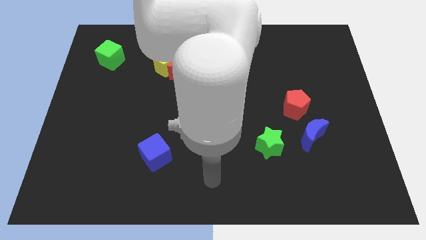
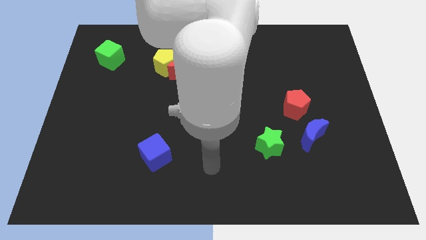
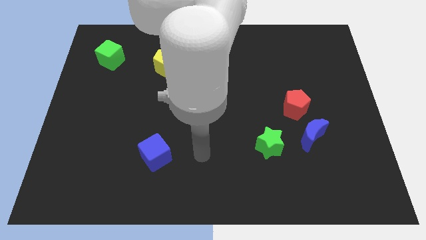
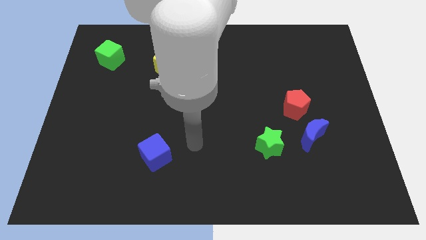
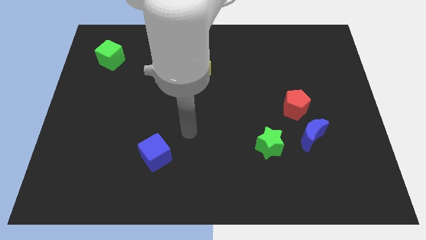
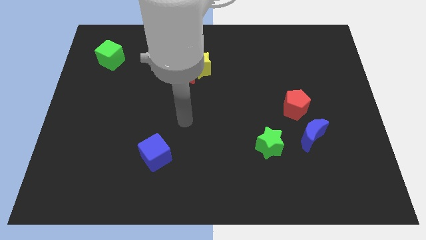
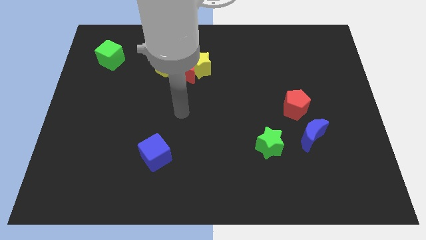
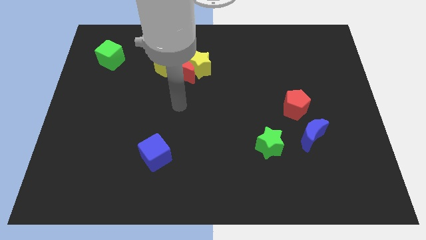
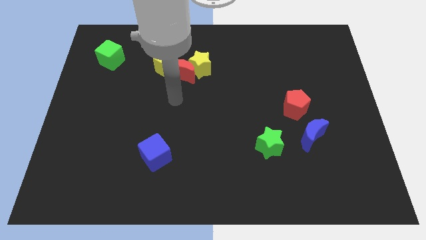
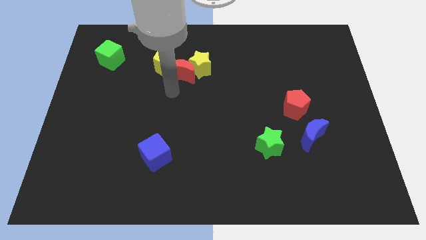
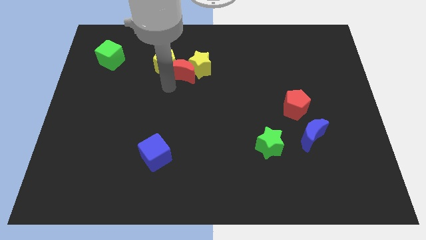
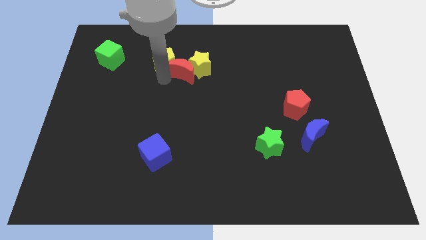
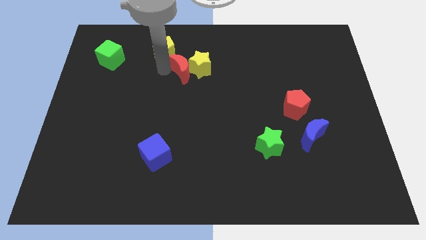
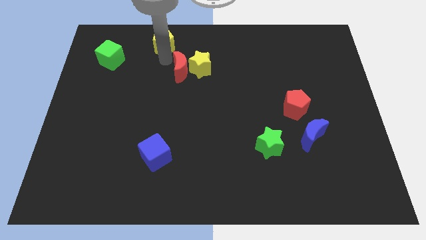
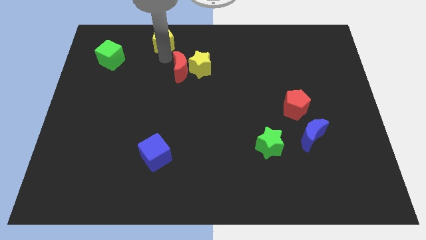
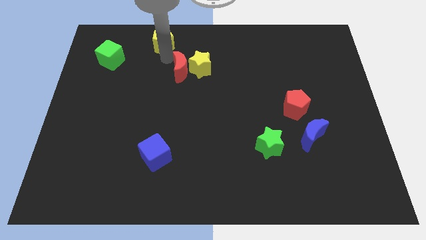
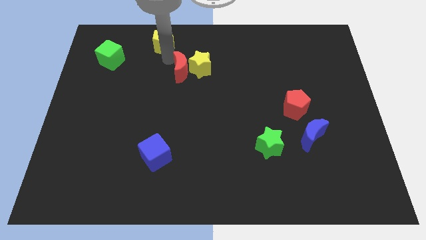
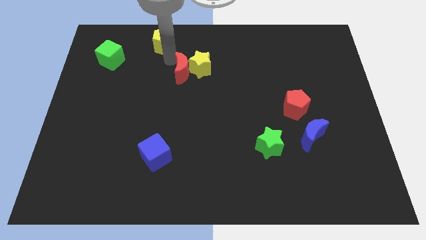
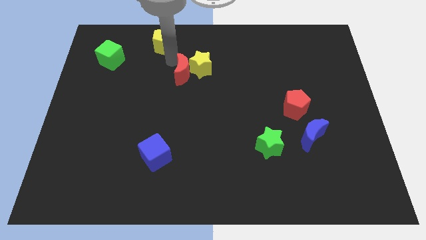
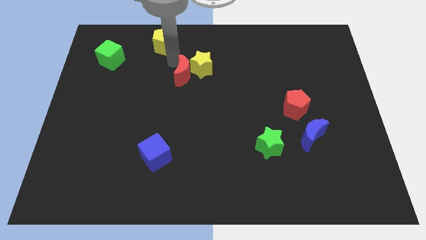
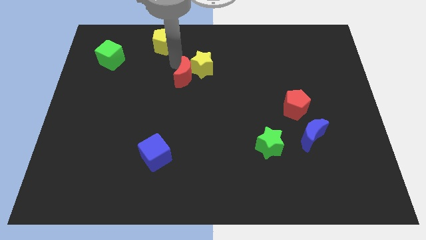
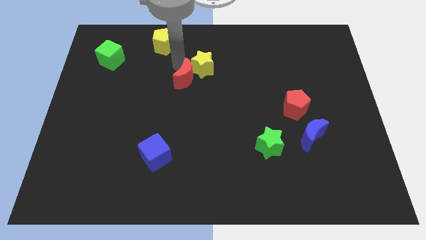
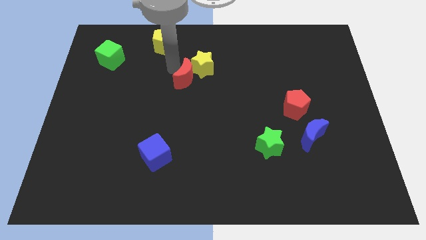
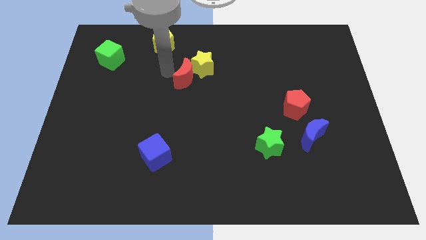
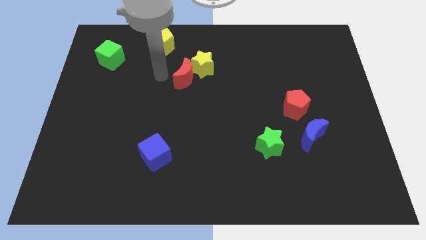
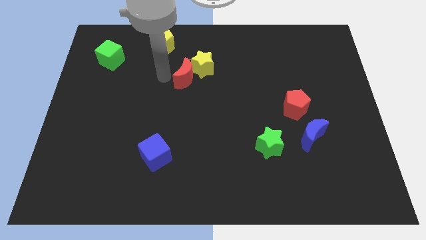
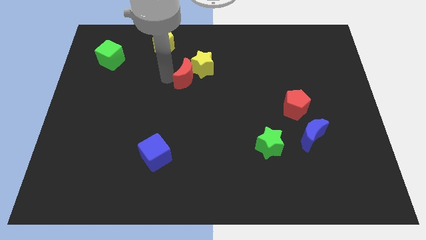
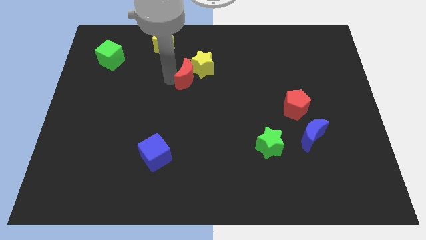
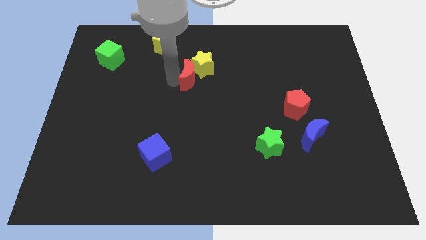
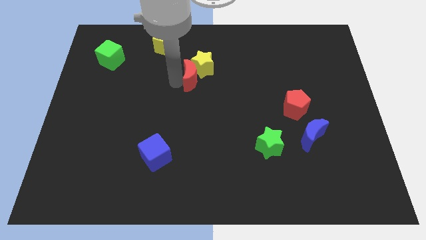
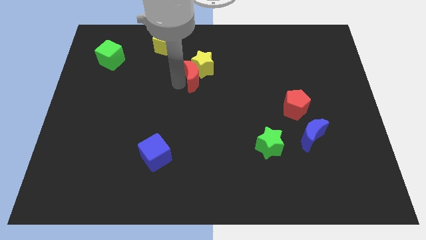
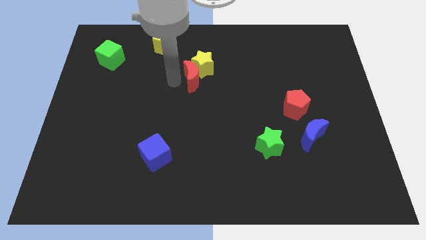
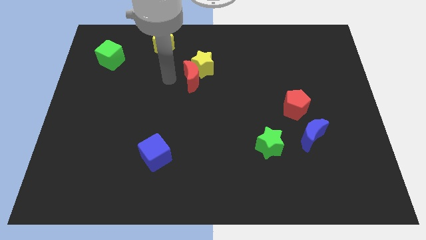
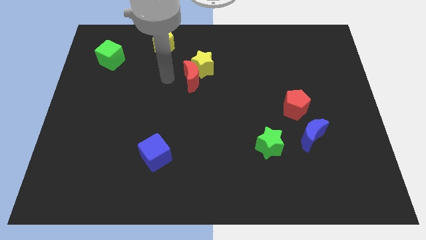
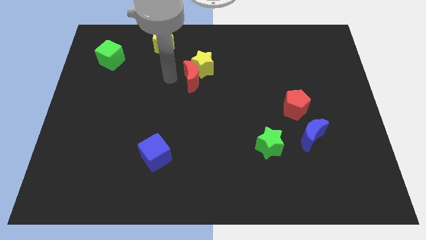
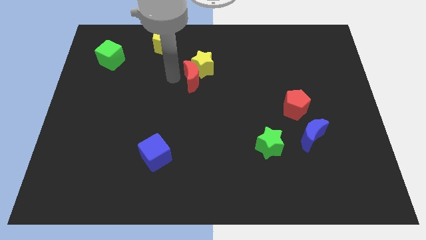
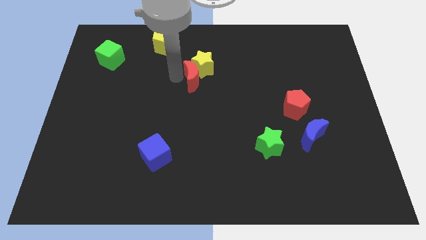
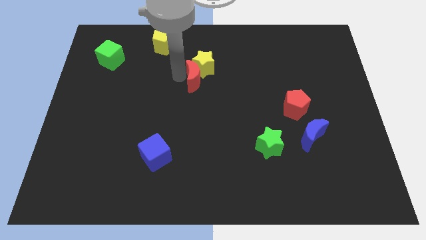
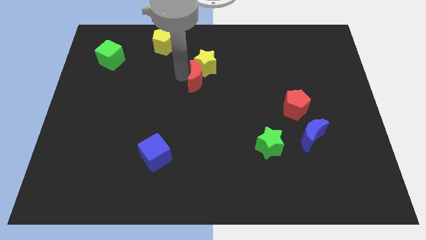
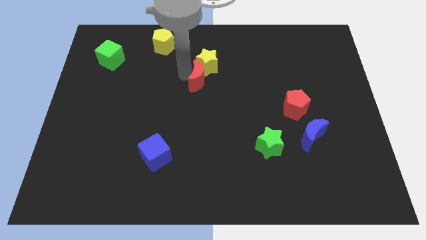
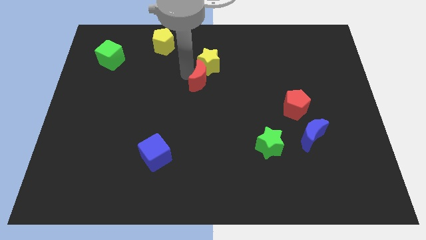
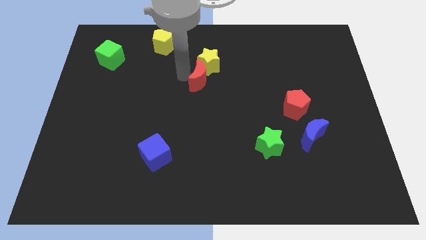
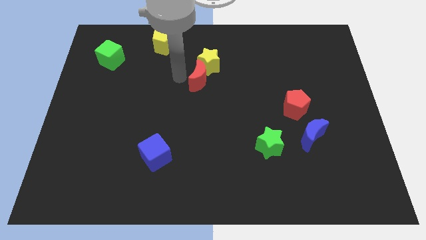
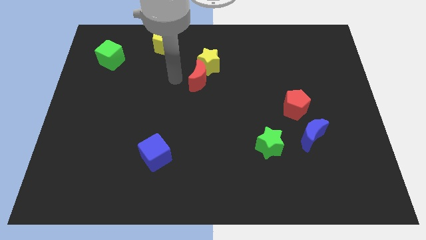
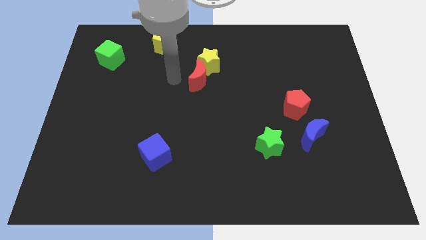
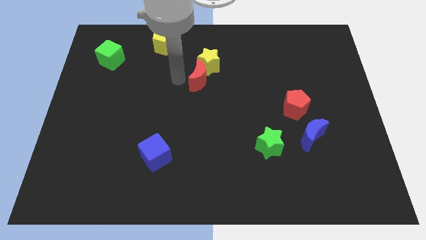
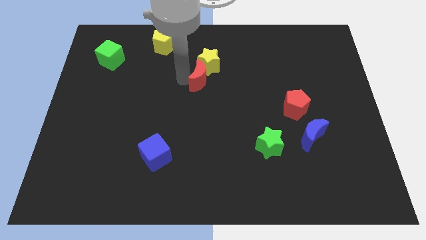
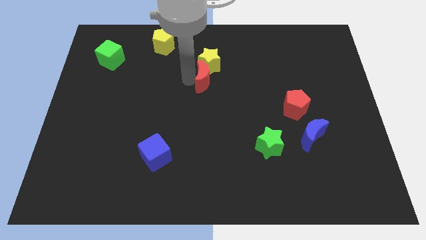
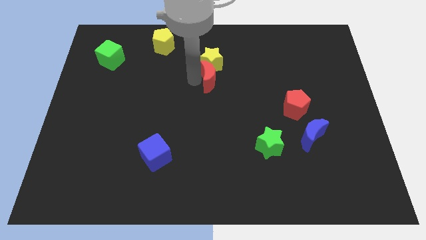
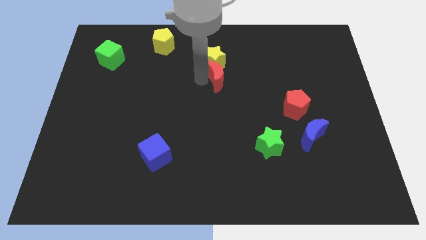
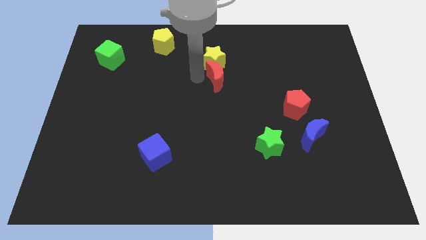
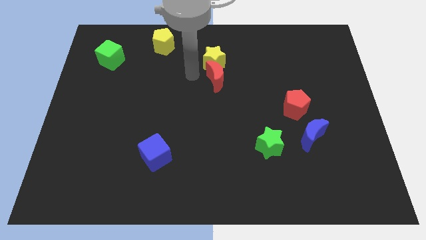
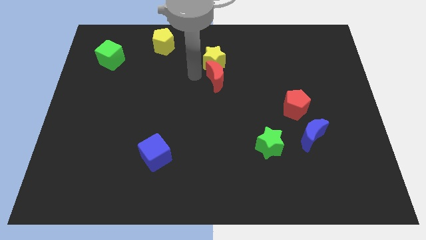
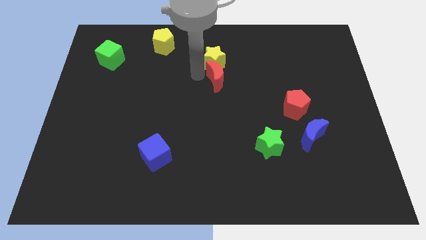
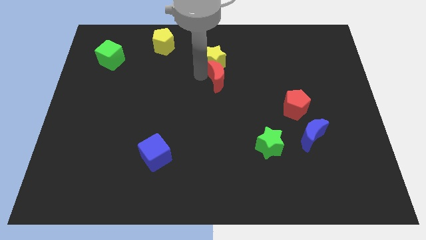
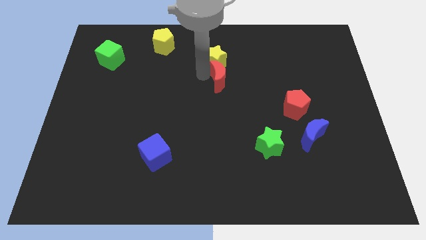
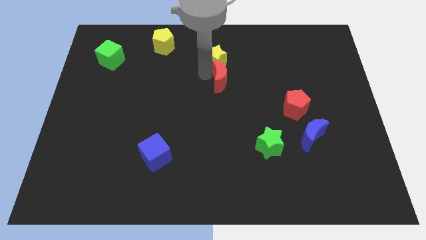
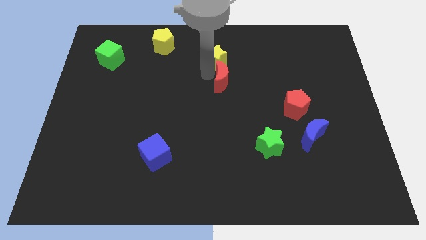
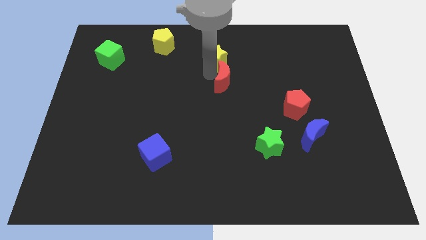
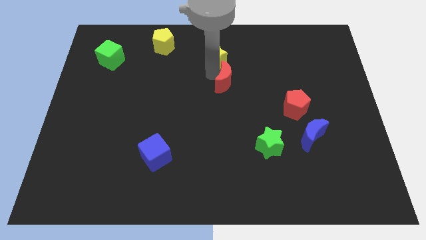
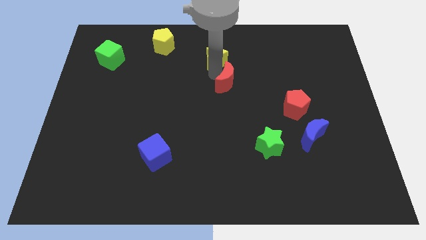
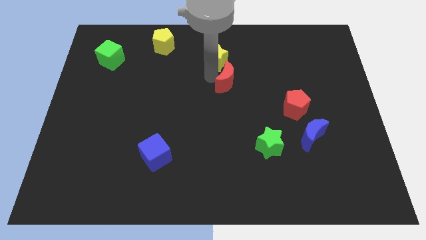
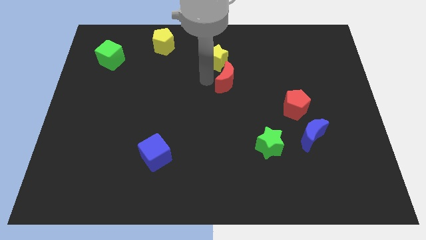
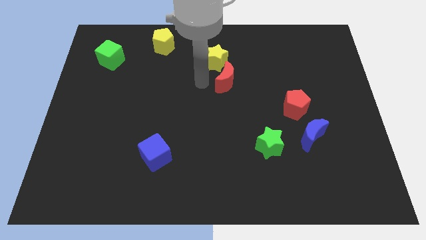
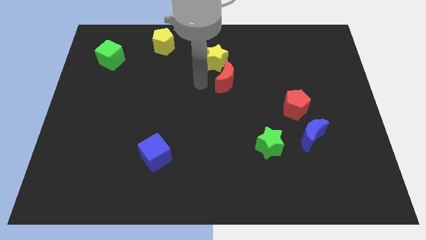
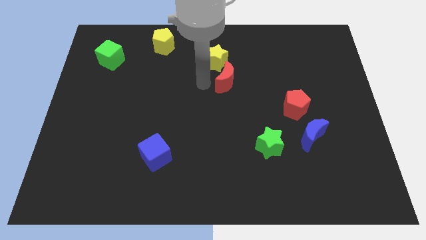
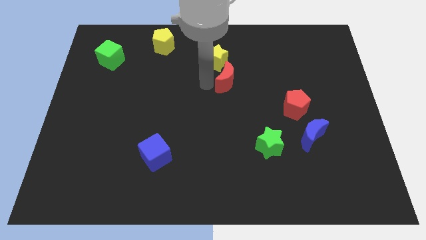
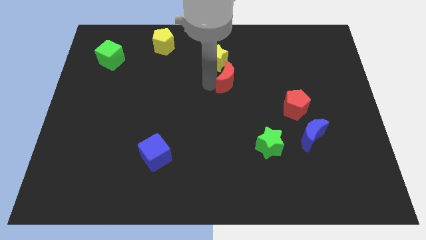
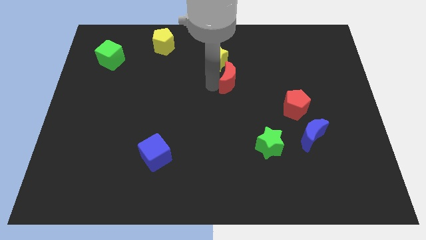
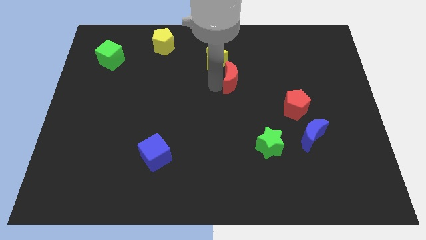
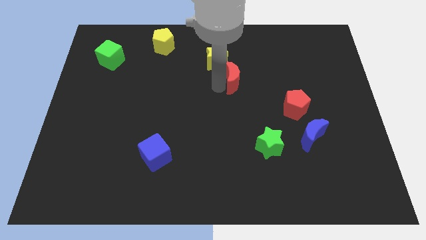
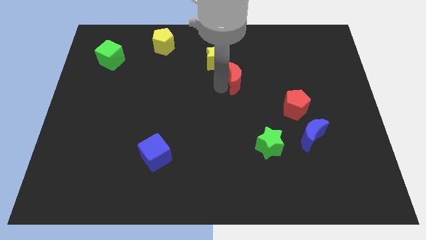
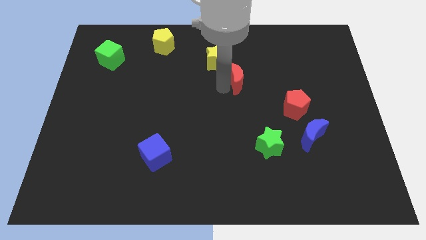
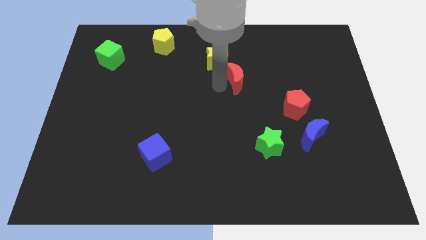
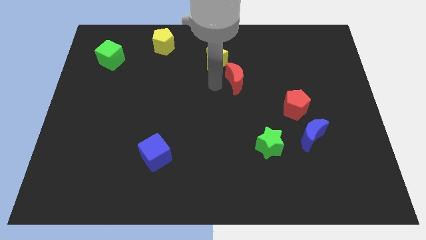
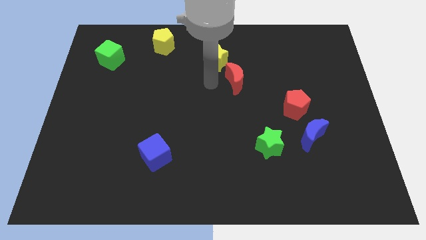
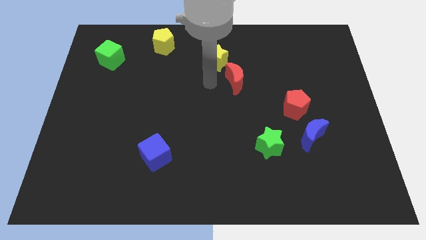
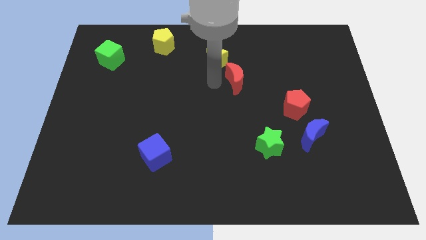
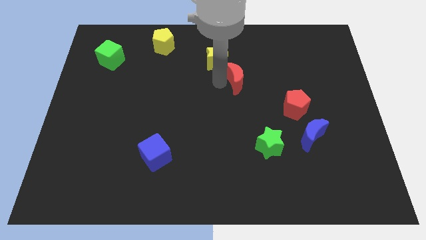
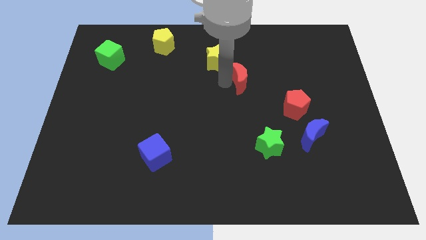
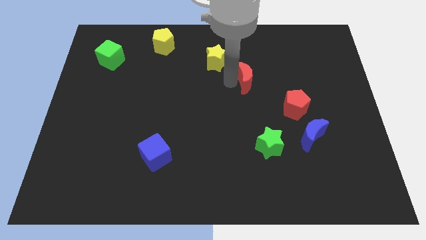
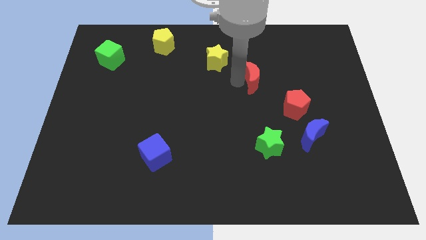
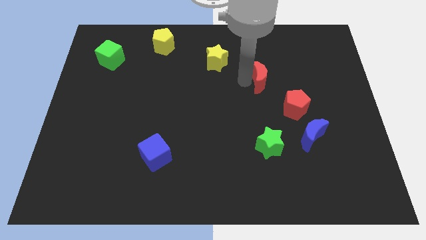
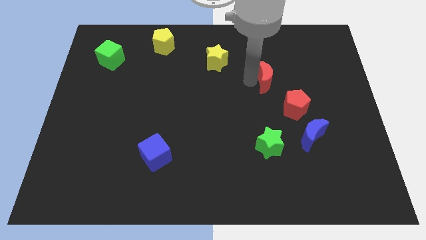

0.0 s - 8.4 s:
slide the red moon right
